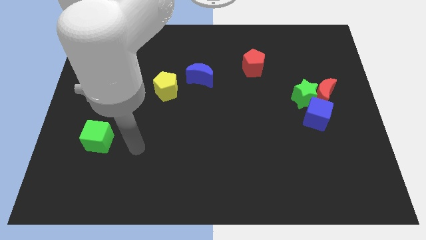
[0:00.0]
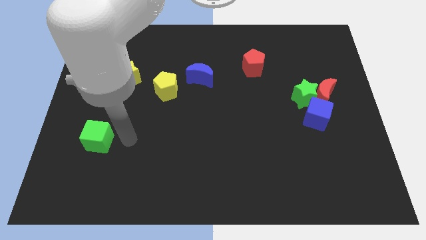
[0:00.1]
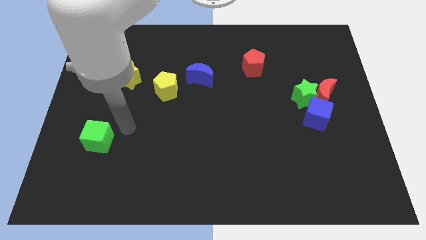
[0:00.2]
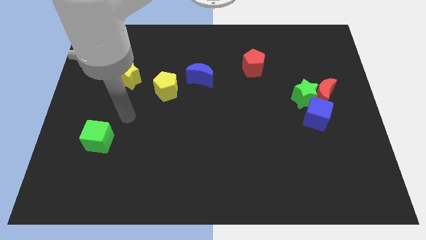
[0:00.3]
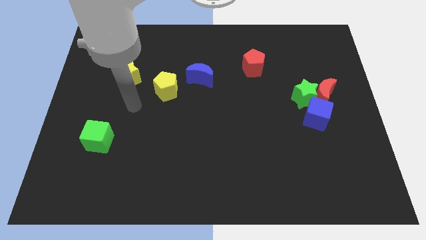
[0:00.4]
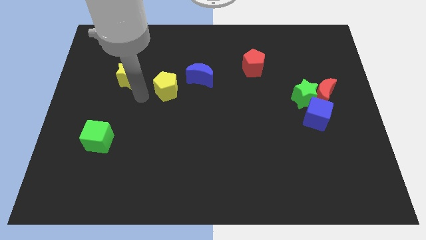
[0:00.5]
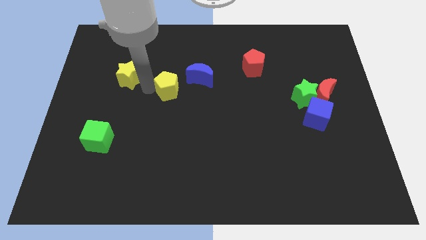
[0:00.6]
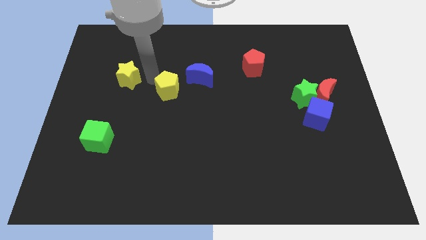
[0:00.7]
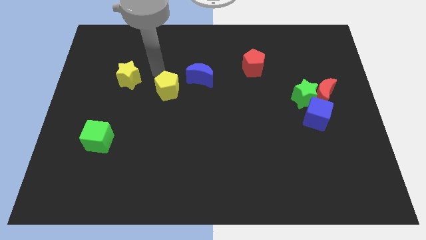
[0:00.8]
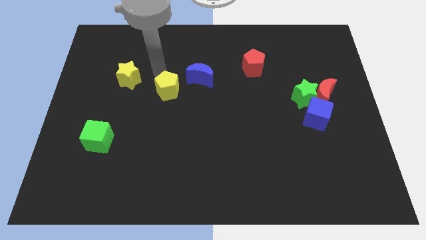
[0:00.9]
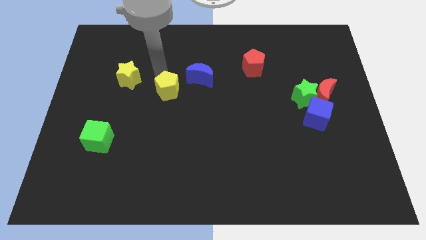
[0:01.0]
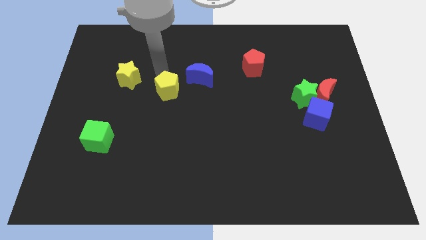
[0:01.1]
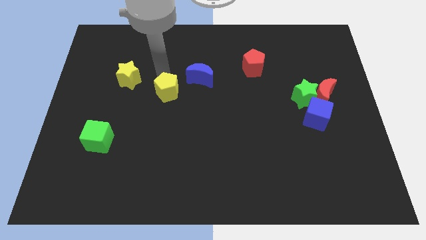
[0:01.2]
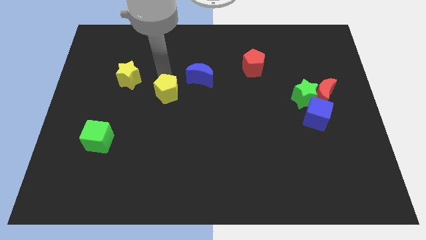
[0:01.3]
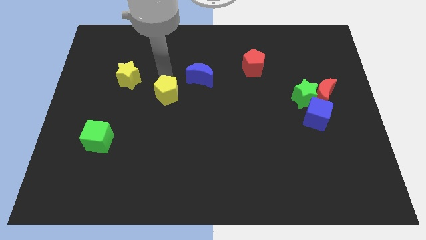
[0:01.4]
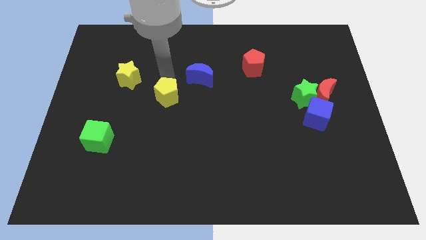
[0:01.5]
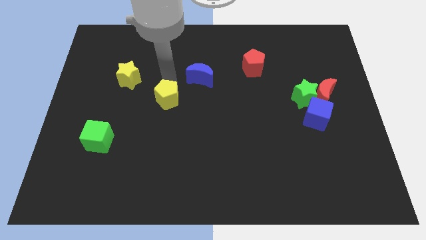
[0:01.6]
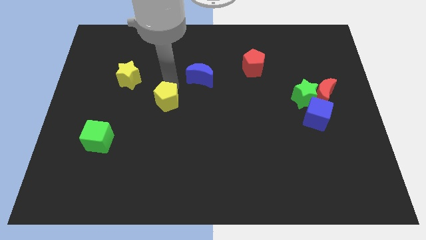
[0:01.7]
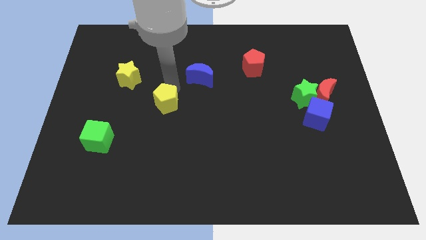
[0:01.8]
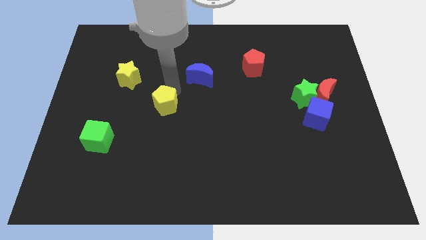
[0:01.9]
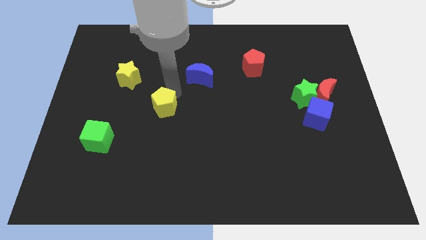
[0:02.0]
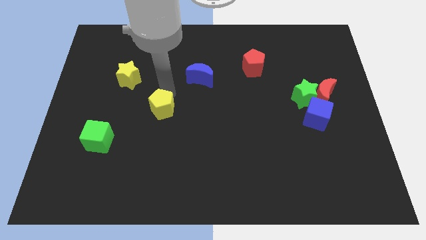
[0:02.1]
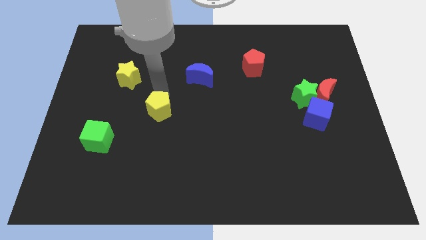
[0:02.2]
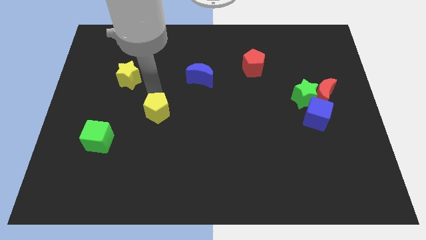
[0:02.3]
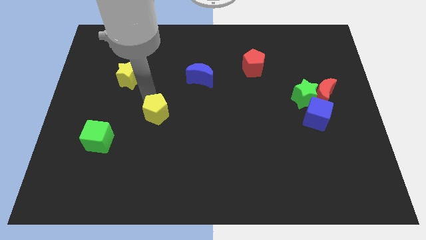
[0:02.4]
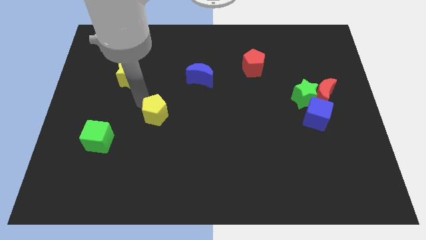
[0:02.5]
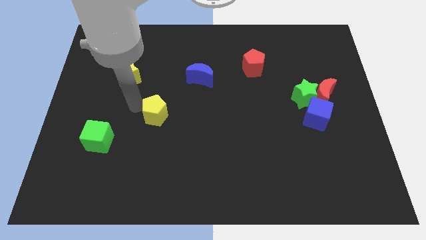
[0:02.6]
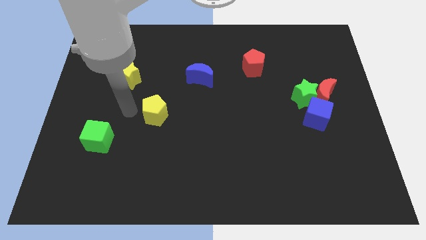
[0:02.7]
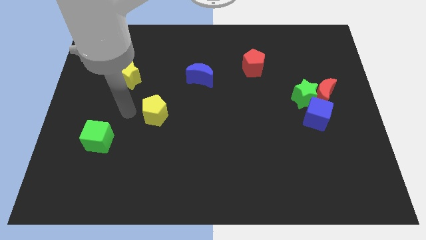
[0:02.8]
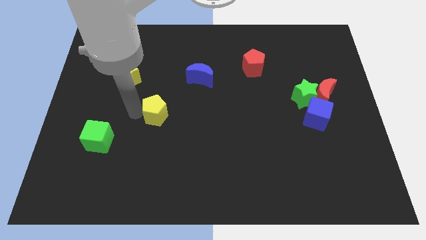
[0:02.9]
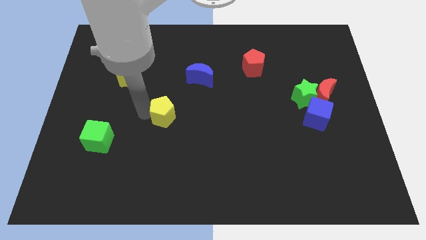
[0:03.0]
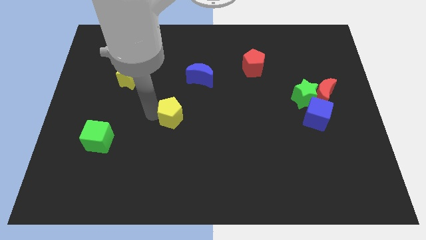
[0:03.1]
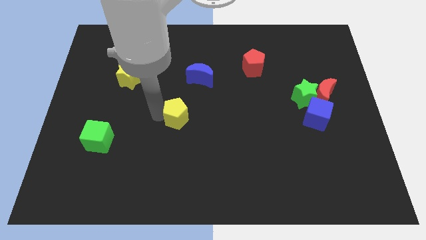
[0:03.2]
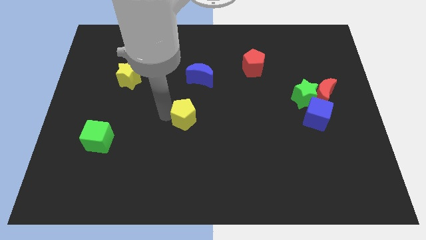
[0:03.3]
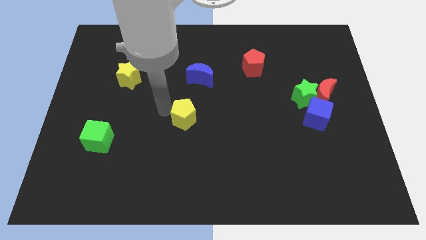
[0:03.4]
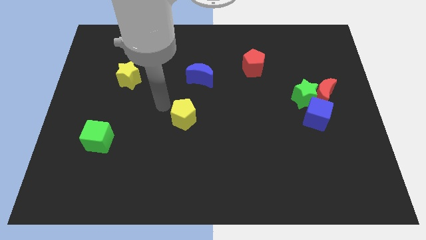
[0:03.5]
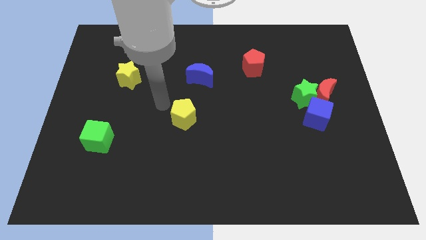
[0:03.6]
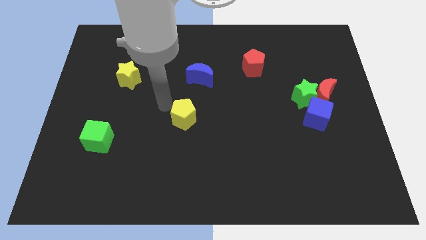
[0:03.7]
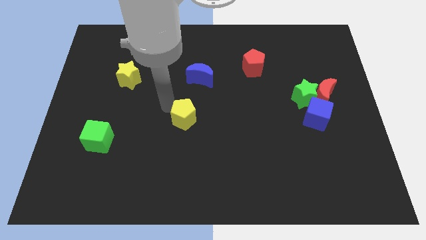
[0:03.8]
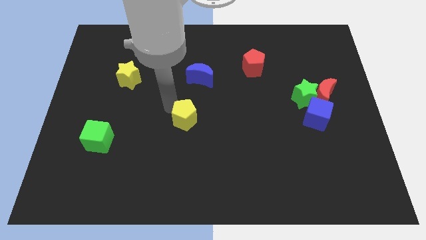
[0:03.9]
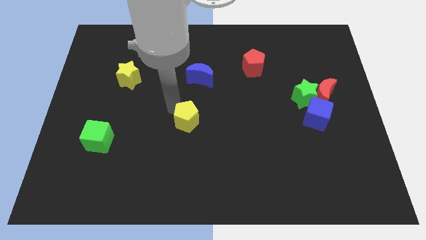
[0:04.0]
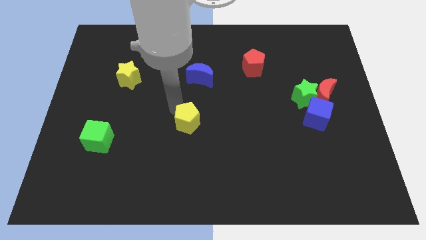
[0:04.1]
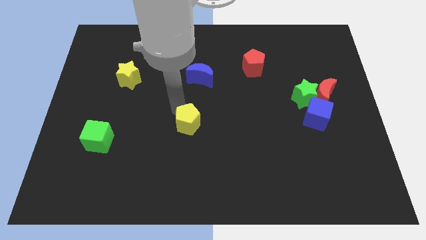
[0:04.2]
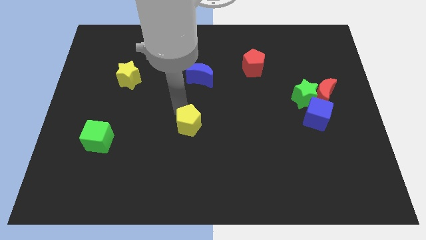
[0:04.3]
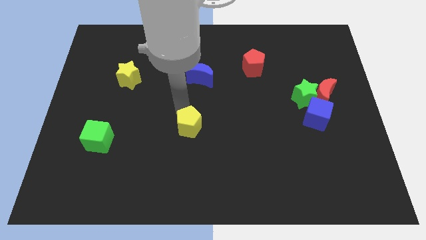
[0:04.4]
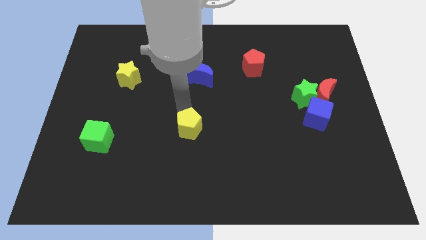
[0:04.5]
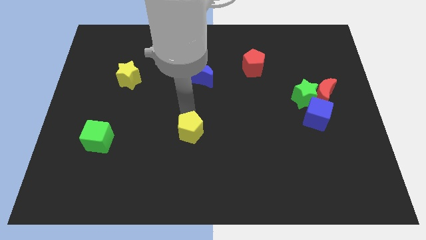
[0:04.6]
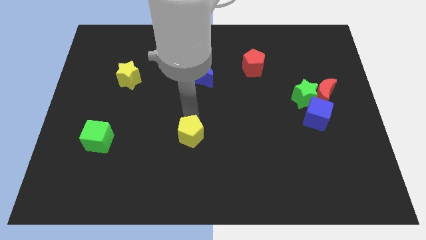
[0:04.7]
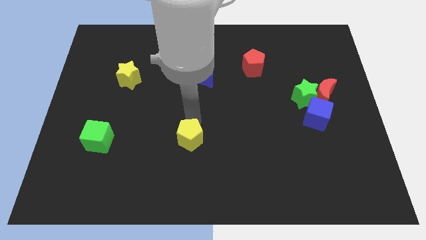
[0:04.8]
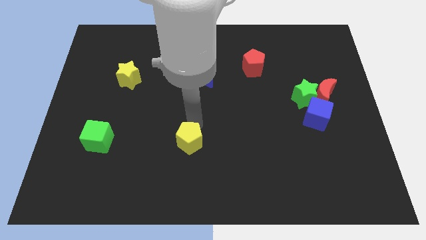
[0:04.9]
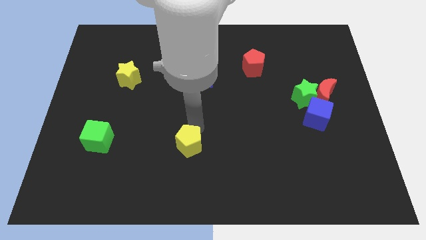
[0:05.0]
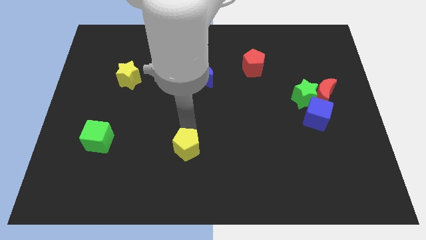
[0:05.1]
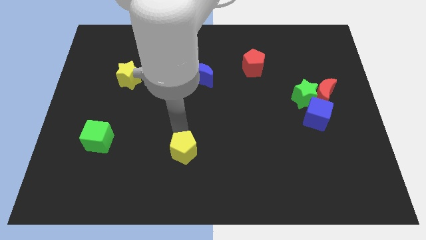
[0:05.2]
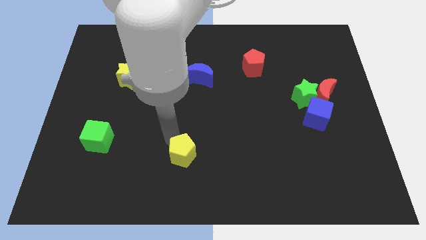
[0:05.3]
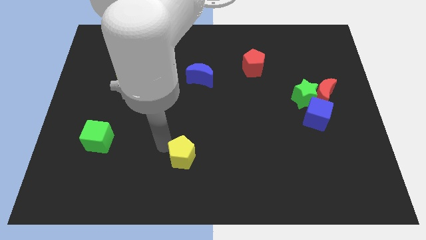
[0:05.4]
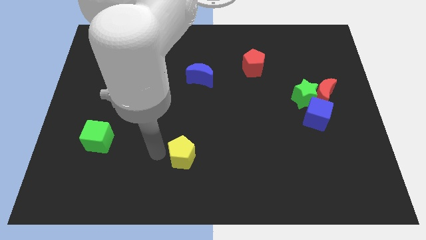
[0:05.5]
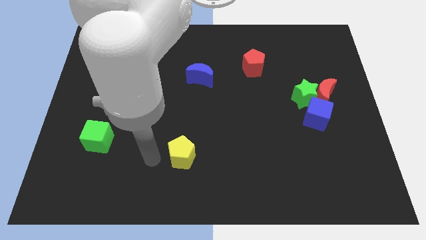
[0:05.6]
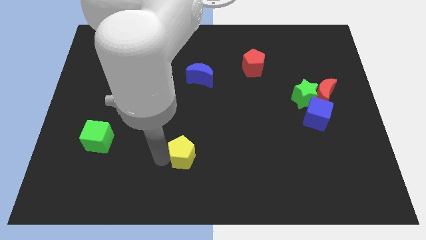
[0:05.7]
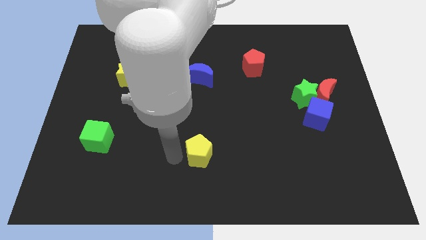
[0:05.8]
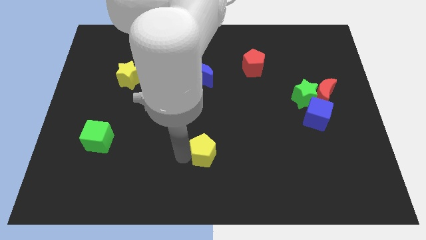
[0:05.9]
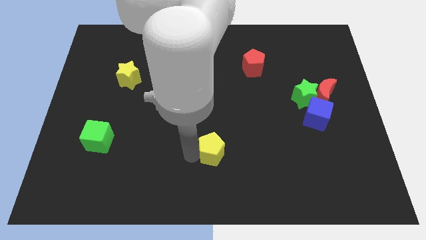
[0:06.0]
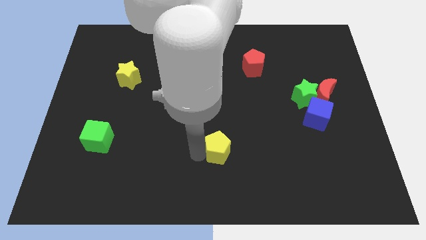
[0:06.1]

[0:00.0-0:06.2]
slide the yellow pentagon downwards and right

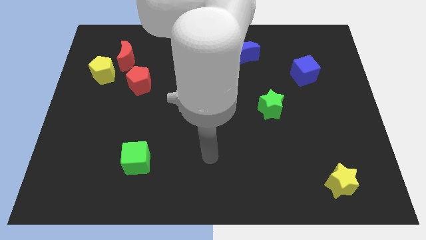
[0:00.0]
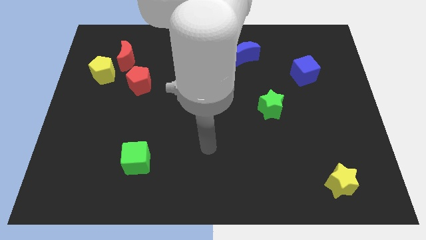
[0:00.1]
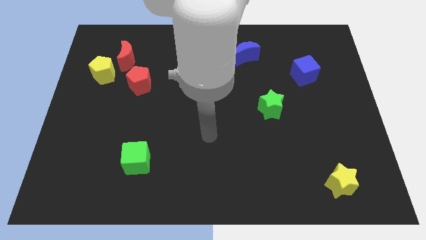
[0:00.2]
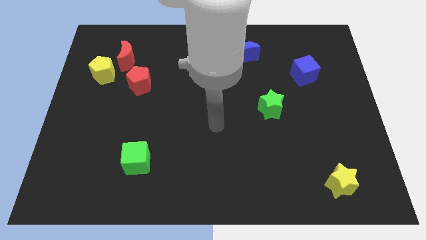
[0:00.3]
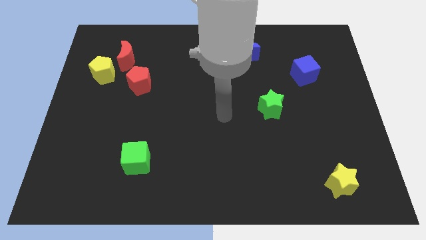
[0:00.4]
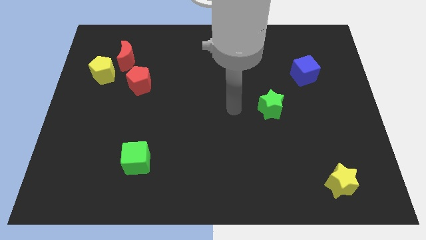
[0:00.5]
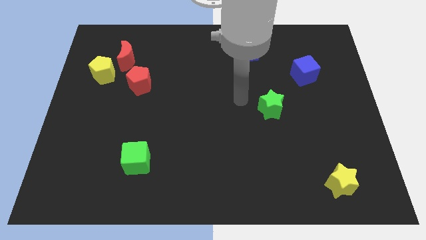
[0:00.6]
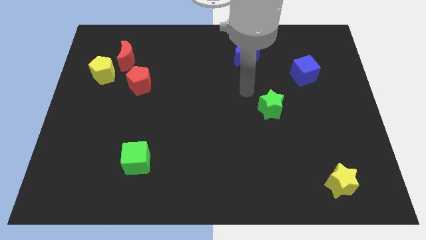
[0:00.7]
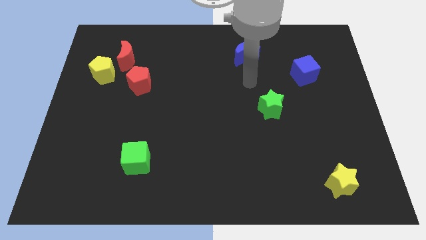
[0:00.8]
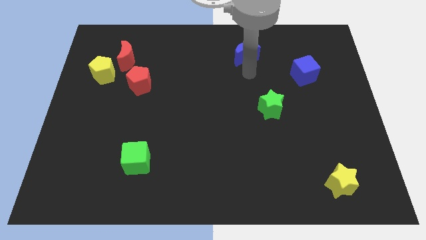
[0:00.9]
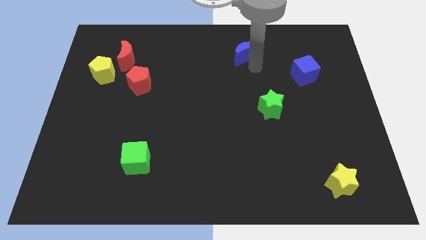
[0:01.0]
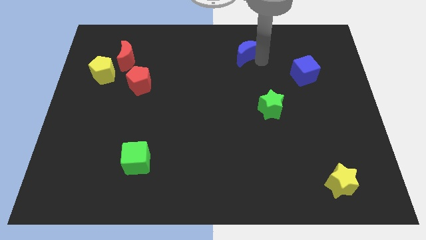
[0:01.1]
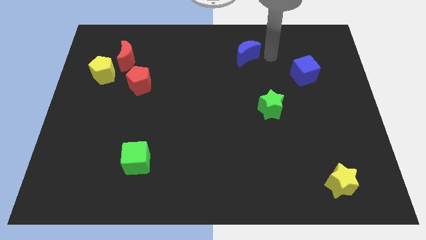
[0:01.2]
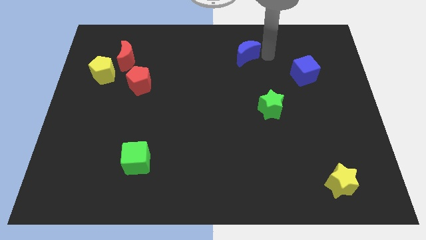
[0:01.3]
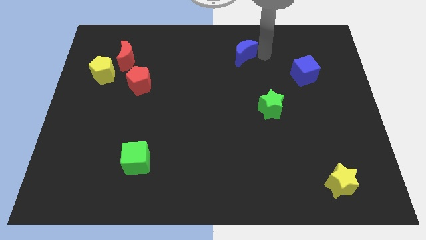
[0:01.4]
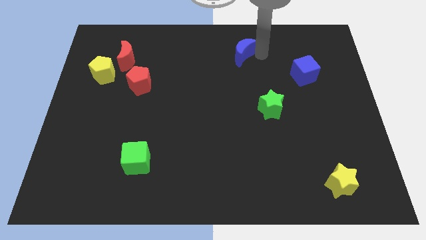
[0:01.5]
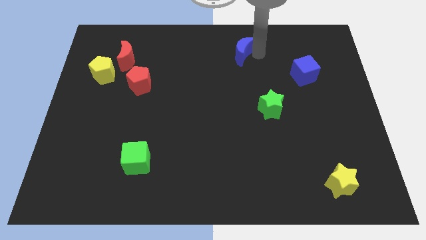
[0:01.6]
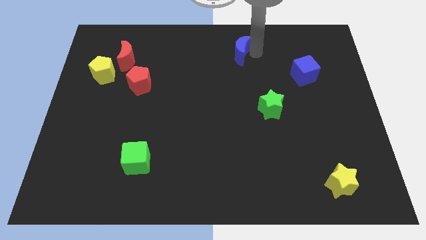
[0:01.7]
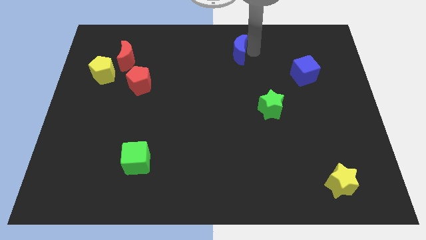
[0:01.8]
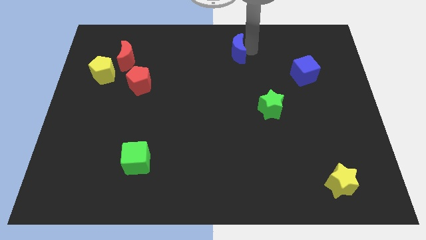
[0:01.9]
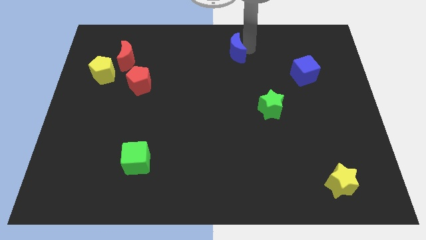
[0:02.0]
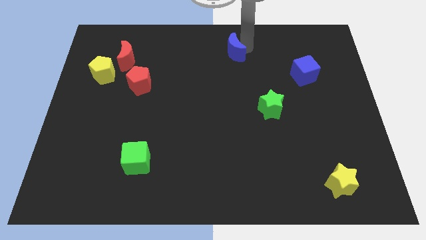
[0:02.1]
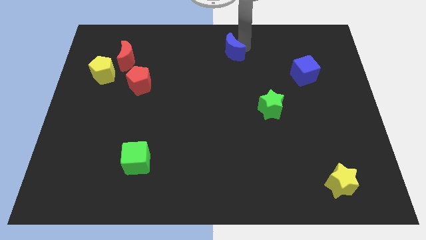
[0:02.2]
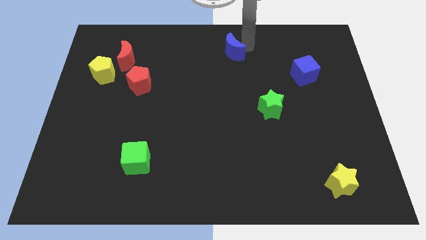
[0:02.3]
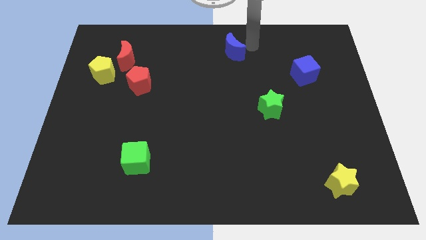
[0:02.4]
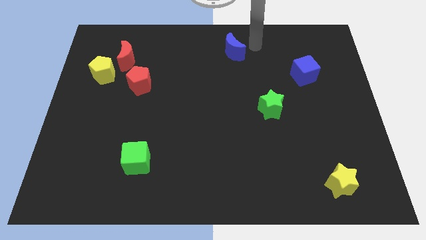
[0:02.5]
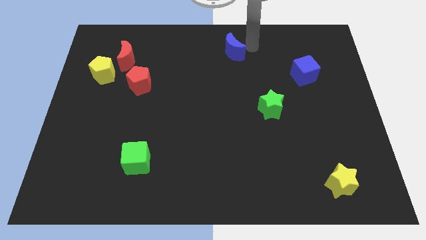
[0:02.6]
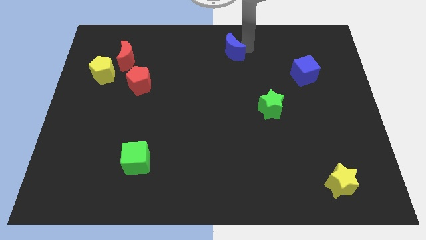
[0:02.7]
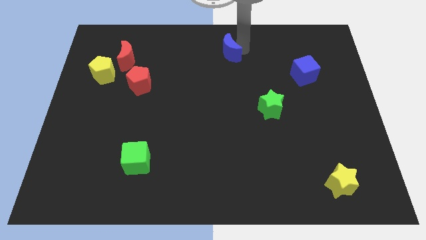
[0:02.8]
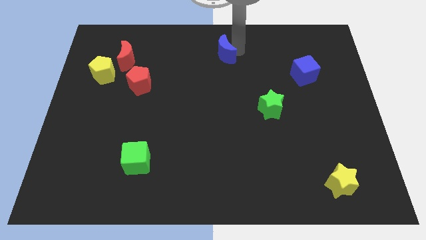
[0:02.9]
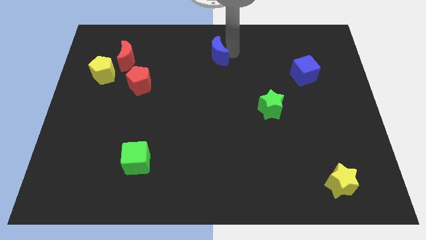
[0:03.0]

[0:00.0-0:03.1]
slightly move the blue moon left
